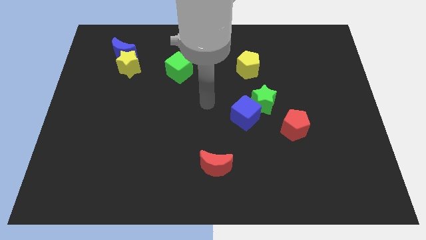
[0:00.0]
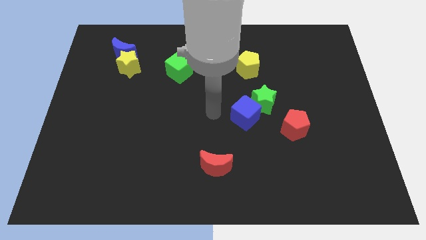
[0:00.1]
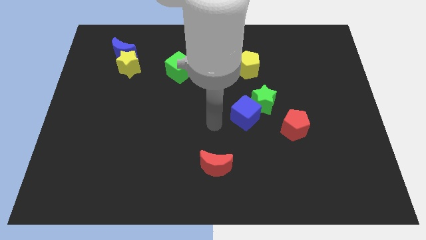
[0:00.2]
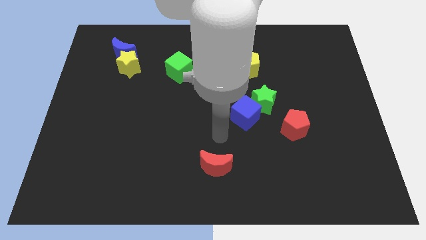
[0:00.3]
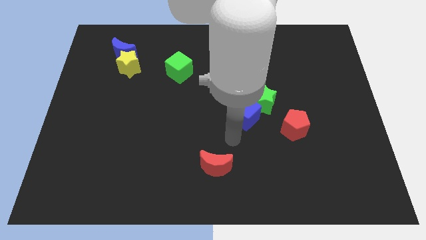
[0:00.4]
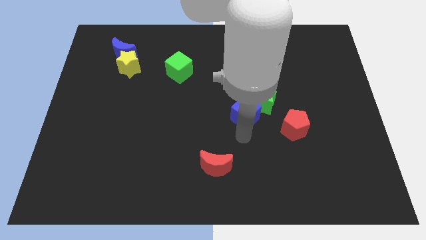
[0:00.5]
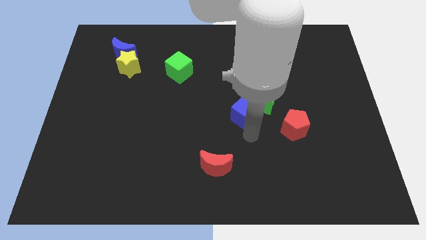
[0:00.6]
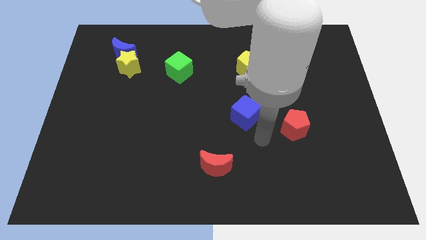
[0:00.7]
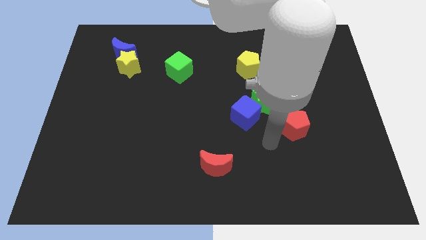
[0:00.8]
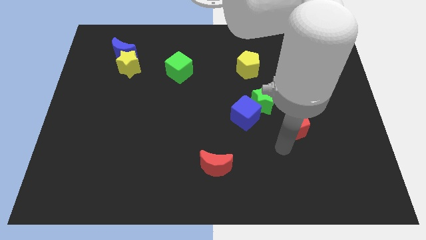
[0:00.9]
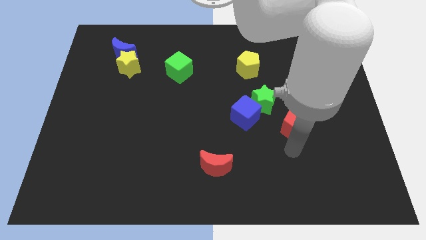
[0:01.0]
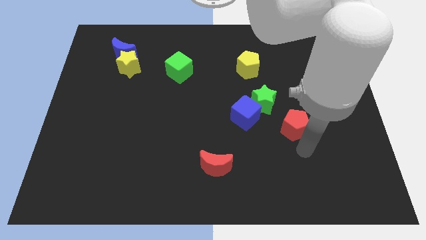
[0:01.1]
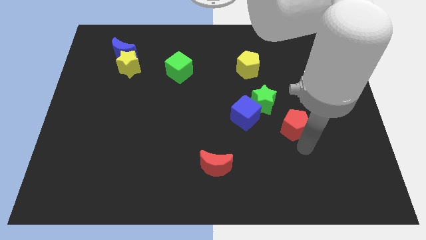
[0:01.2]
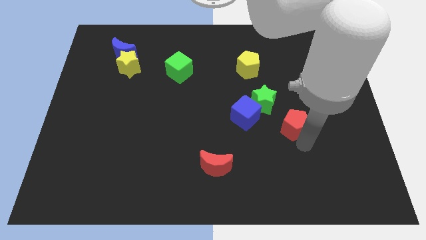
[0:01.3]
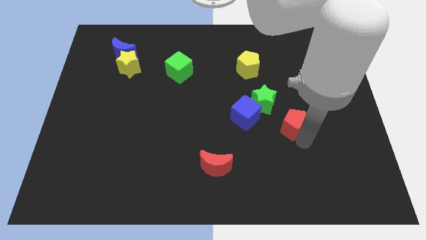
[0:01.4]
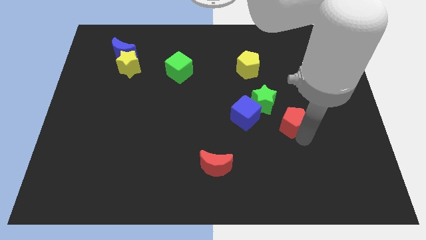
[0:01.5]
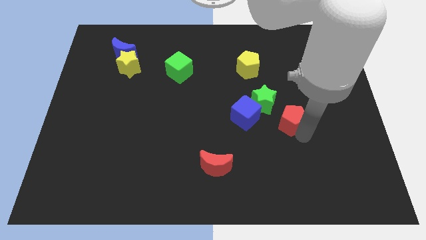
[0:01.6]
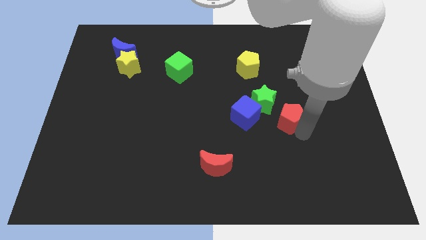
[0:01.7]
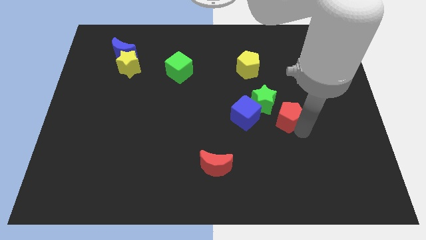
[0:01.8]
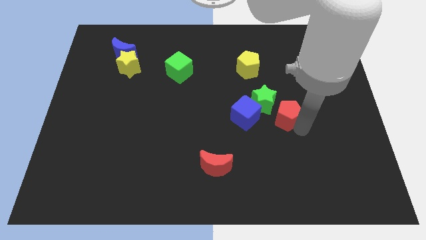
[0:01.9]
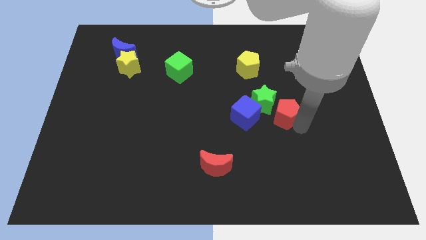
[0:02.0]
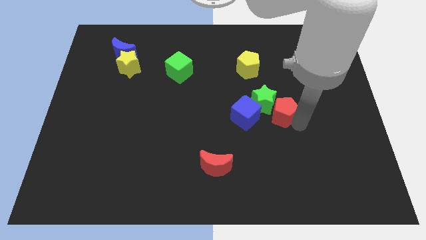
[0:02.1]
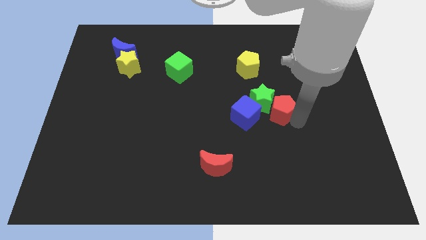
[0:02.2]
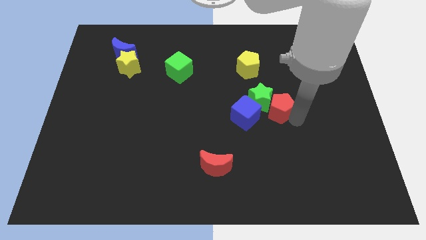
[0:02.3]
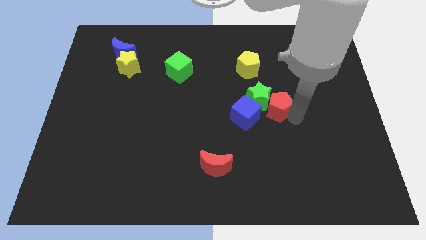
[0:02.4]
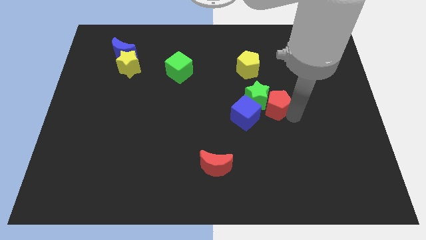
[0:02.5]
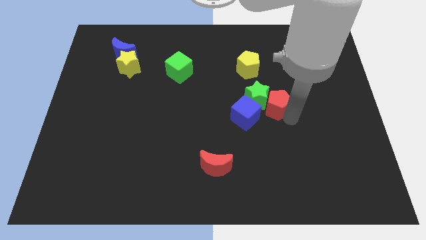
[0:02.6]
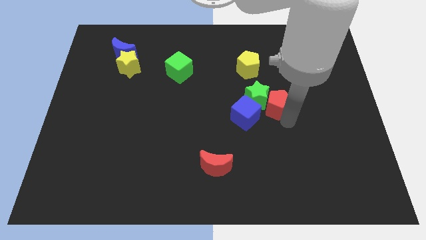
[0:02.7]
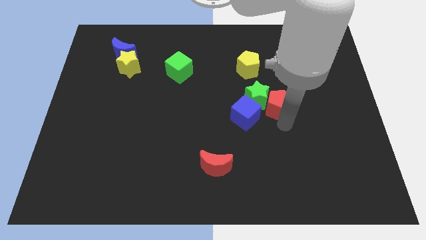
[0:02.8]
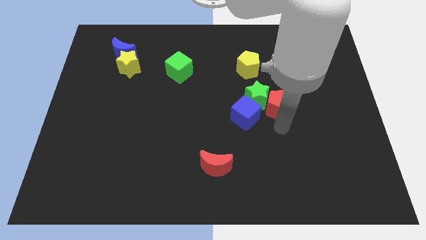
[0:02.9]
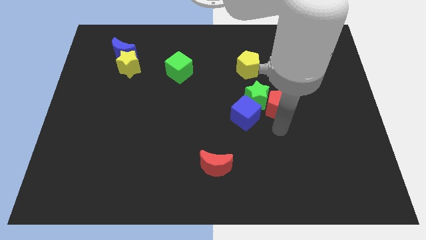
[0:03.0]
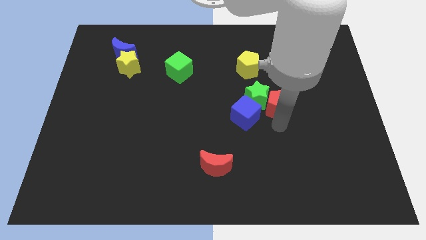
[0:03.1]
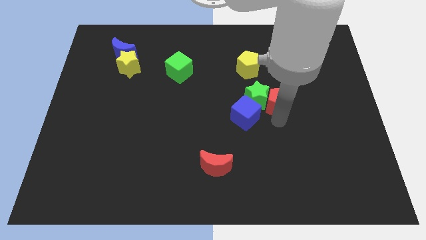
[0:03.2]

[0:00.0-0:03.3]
slightly push the red pentagon up and left diagonally

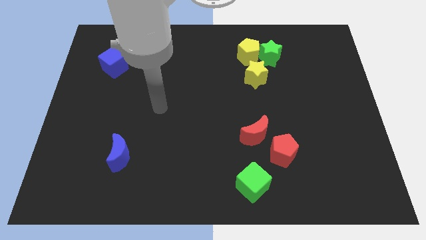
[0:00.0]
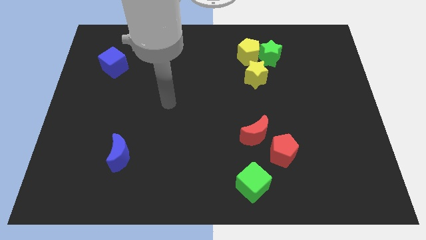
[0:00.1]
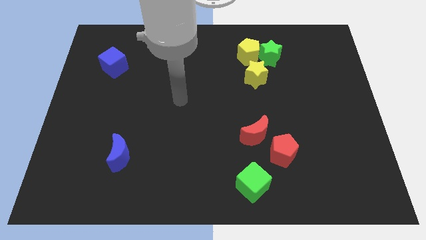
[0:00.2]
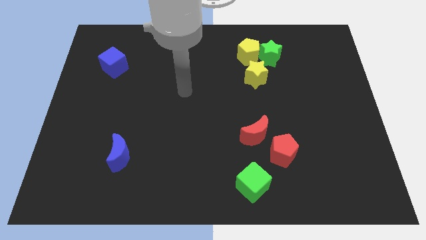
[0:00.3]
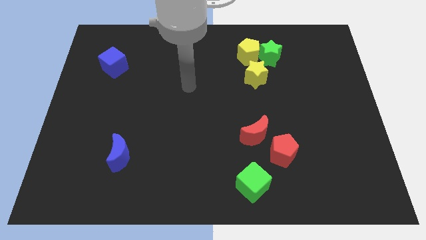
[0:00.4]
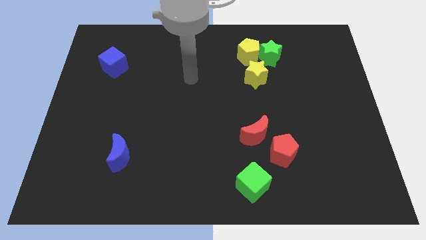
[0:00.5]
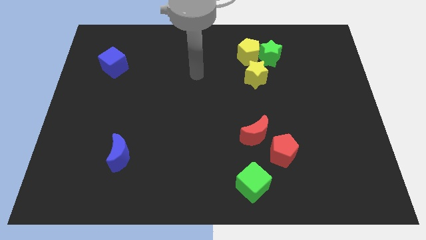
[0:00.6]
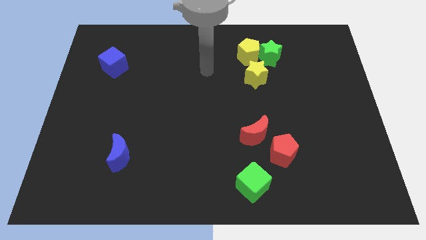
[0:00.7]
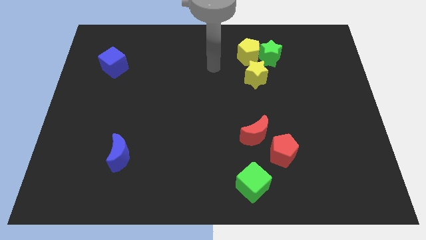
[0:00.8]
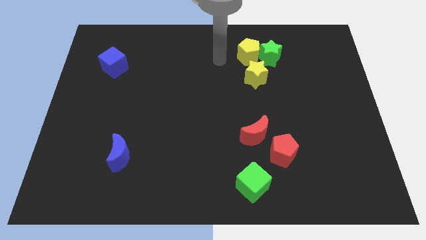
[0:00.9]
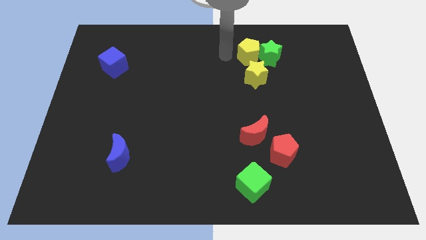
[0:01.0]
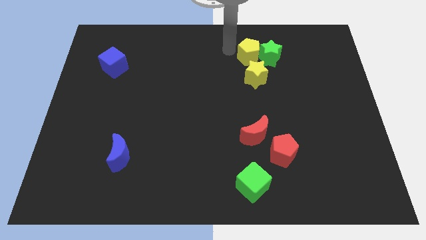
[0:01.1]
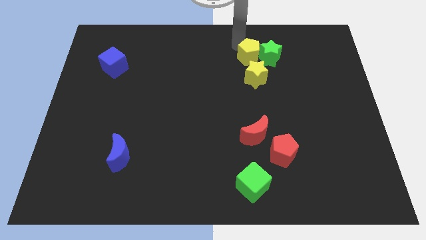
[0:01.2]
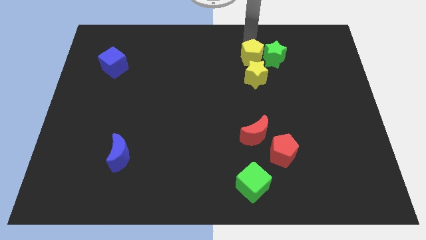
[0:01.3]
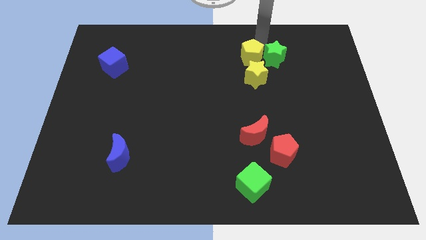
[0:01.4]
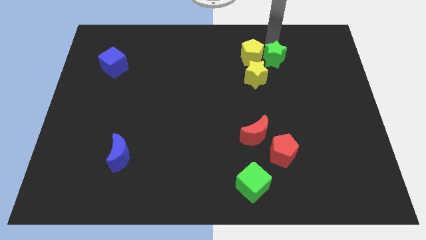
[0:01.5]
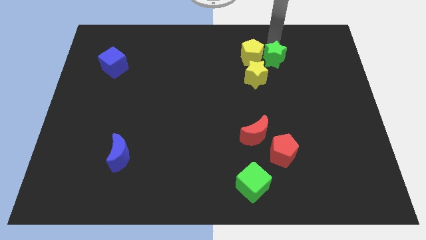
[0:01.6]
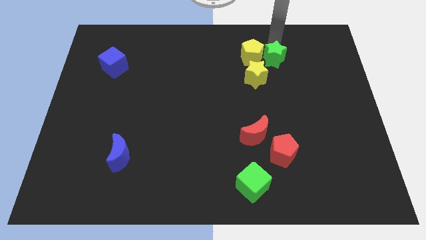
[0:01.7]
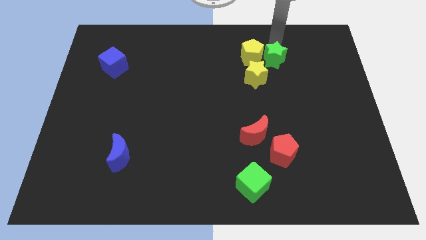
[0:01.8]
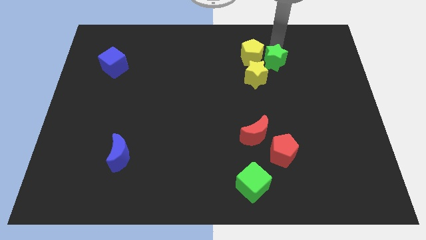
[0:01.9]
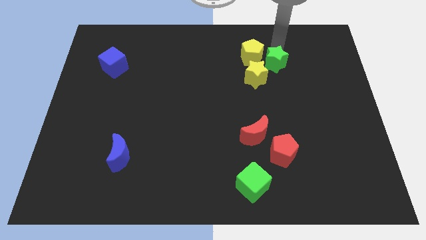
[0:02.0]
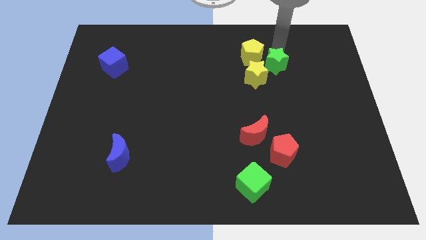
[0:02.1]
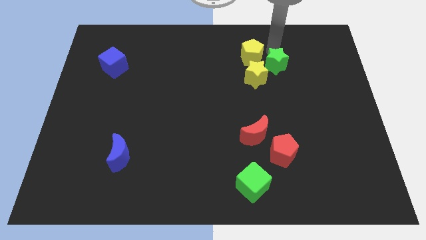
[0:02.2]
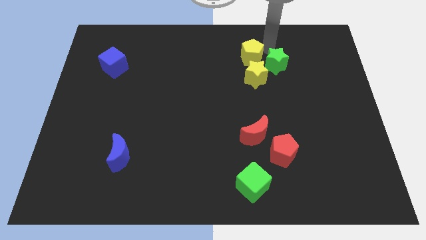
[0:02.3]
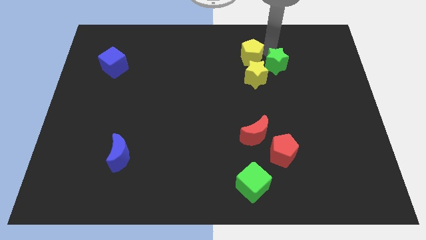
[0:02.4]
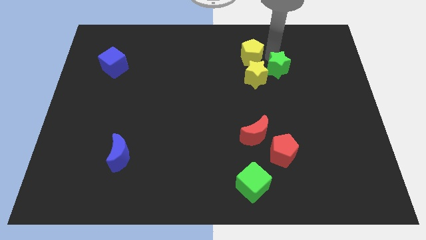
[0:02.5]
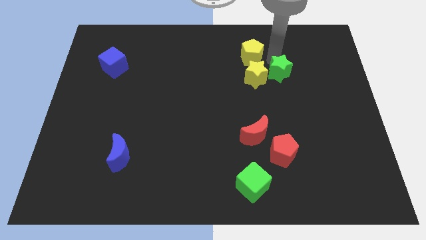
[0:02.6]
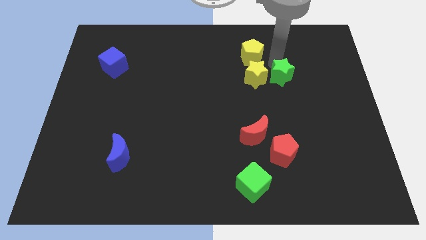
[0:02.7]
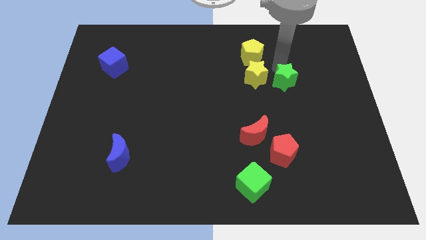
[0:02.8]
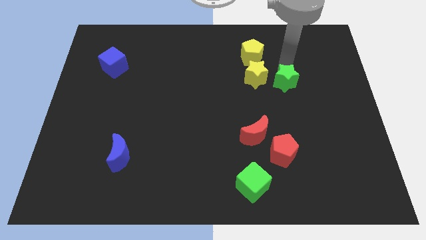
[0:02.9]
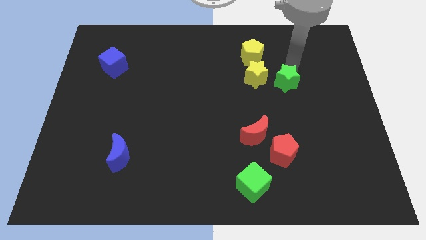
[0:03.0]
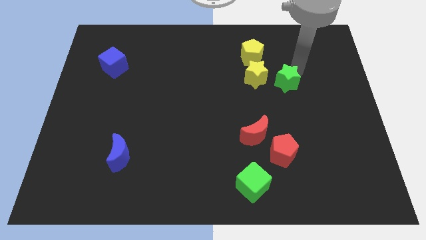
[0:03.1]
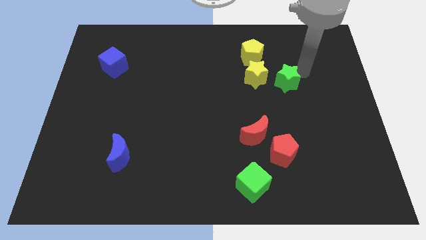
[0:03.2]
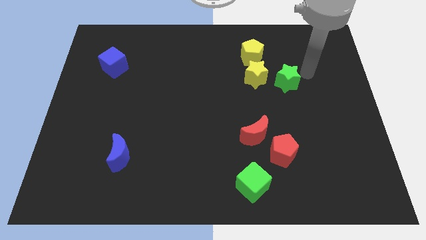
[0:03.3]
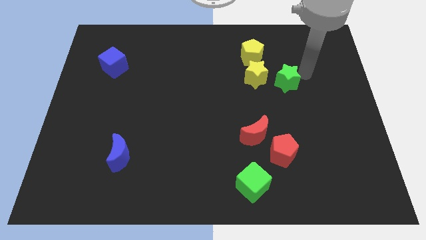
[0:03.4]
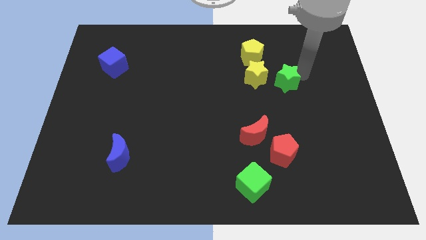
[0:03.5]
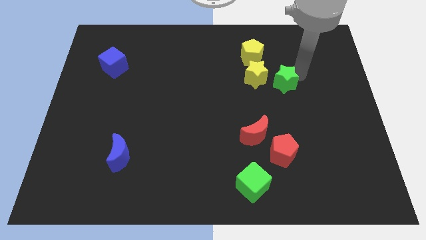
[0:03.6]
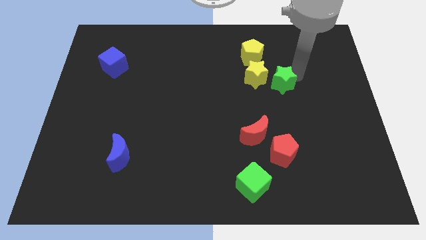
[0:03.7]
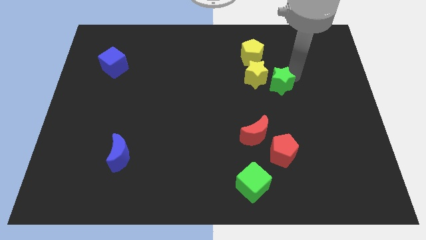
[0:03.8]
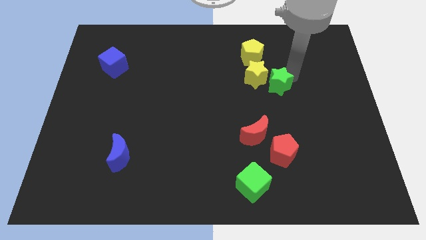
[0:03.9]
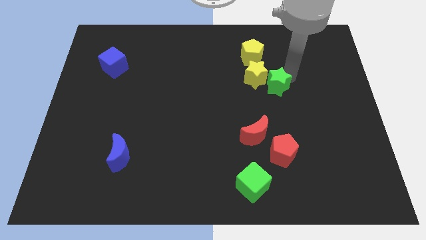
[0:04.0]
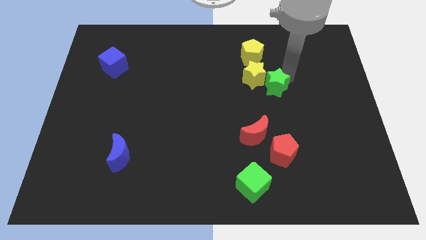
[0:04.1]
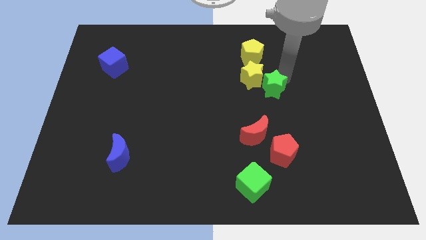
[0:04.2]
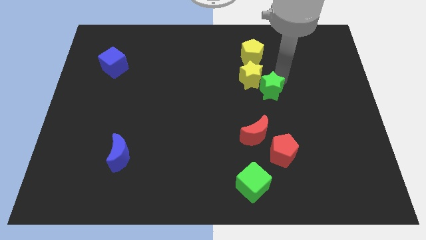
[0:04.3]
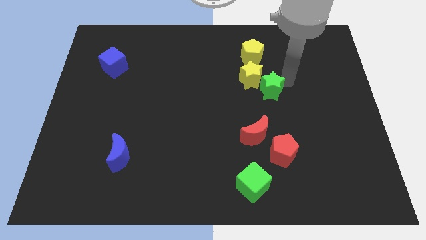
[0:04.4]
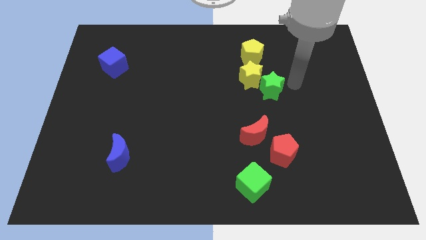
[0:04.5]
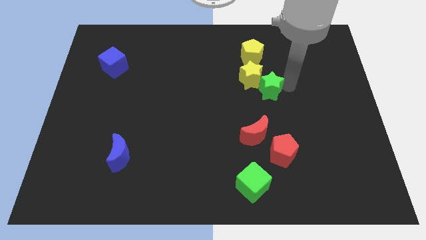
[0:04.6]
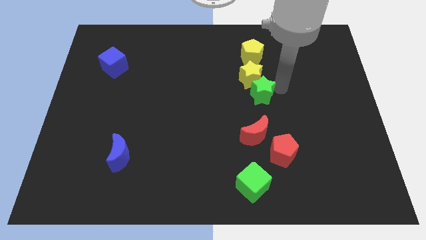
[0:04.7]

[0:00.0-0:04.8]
slide the green star downwards and to the left a little bit
